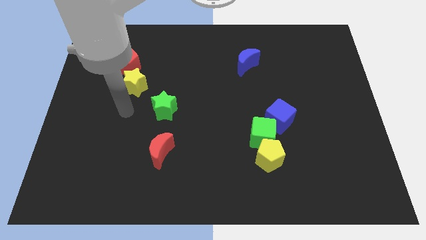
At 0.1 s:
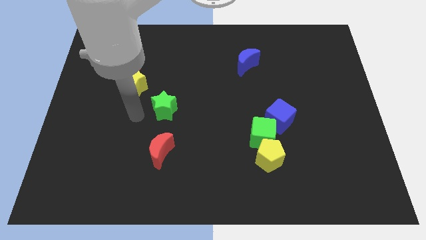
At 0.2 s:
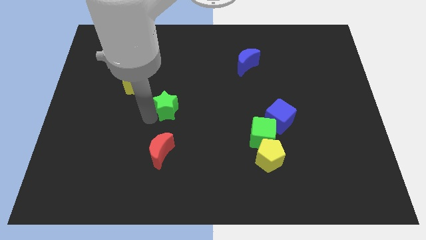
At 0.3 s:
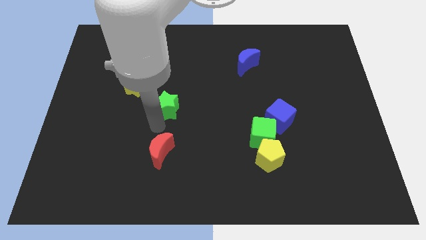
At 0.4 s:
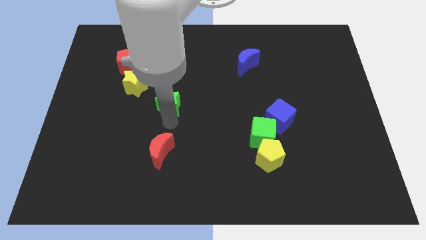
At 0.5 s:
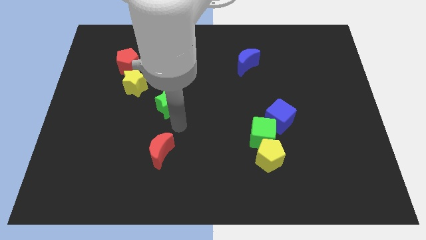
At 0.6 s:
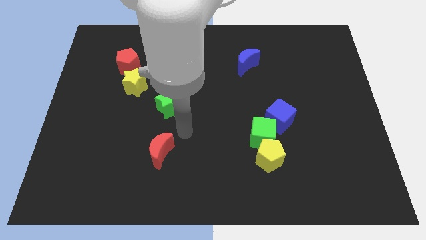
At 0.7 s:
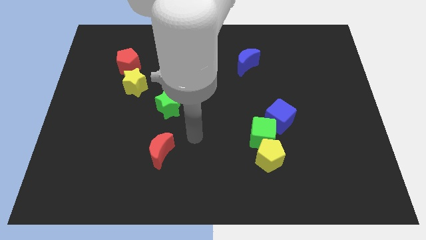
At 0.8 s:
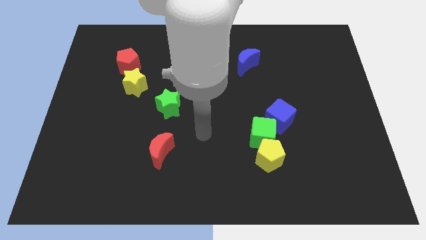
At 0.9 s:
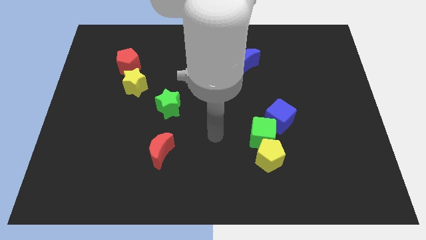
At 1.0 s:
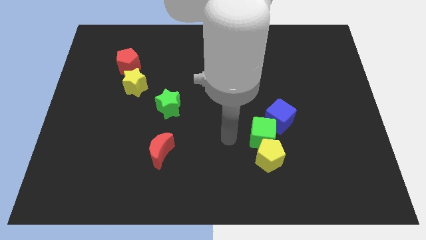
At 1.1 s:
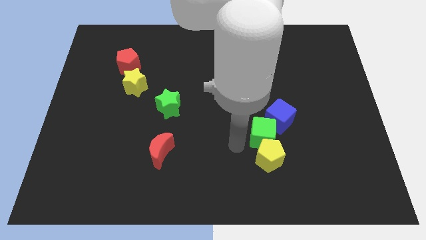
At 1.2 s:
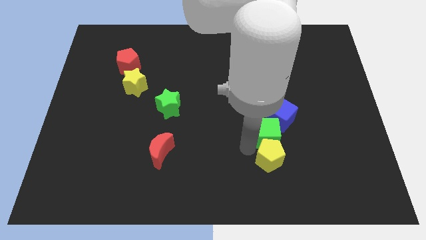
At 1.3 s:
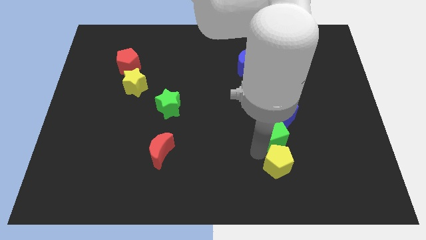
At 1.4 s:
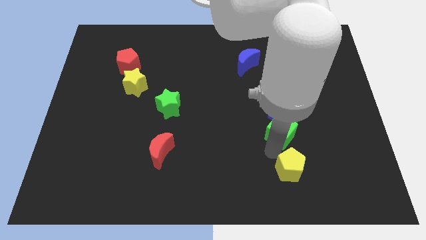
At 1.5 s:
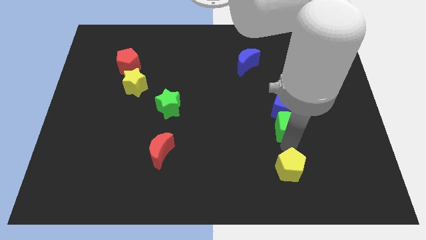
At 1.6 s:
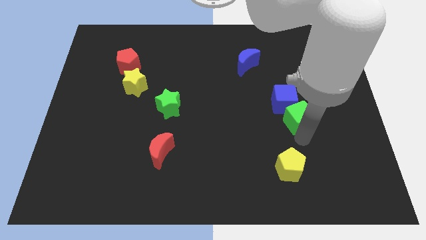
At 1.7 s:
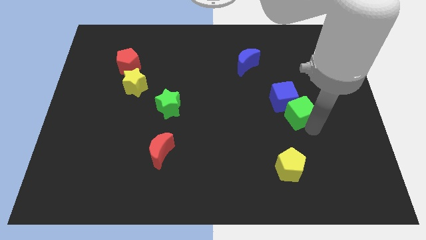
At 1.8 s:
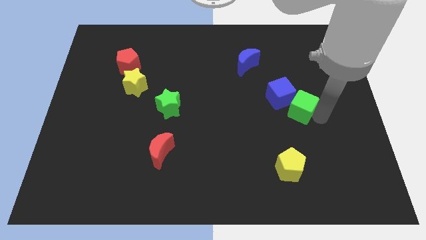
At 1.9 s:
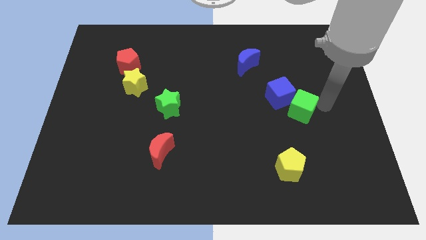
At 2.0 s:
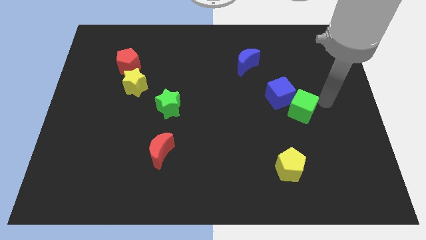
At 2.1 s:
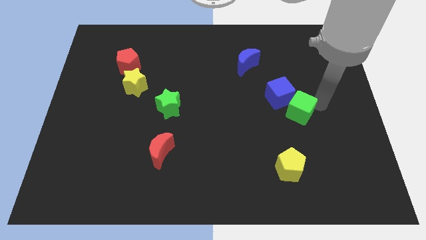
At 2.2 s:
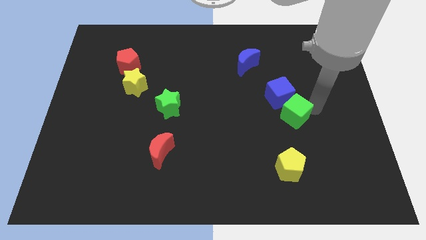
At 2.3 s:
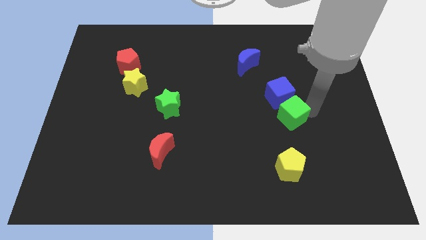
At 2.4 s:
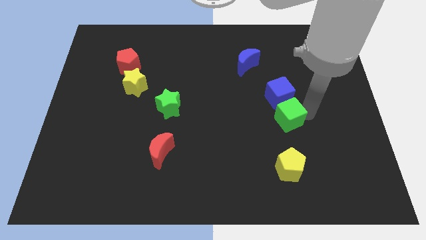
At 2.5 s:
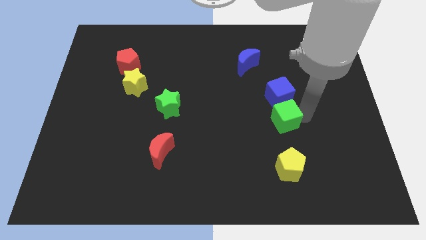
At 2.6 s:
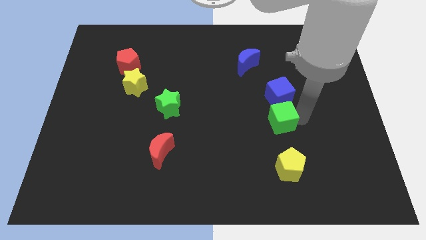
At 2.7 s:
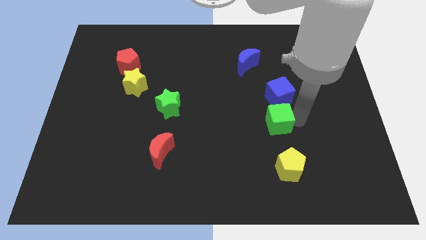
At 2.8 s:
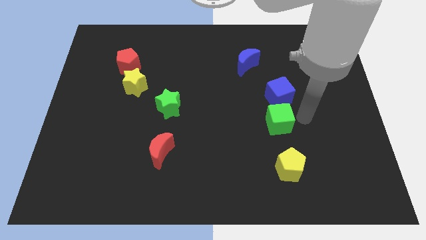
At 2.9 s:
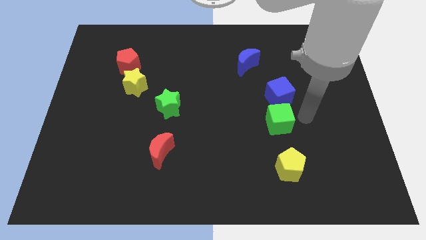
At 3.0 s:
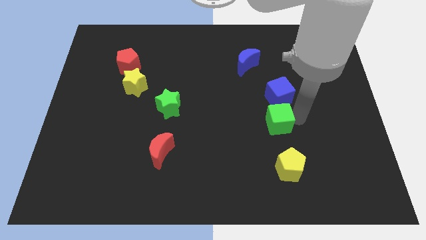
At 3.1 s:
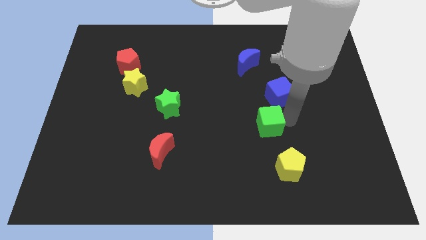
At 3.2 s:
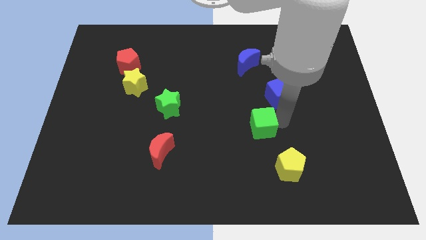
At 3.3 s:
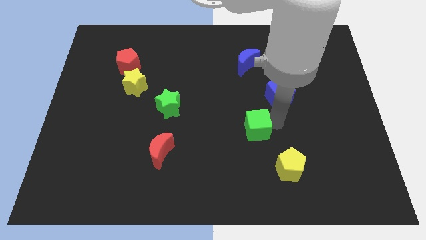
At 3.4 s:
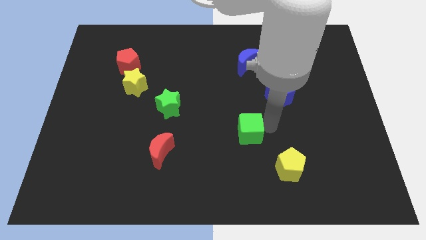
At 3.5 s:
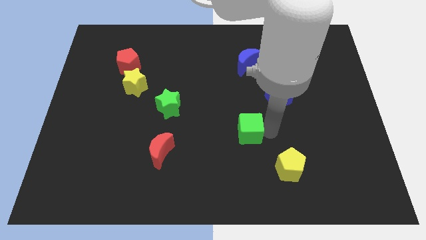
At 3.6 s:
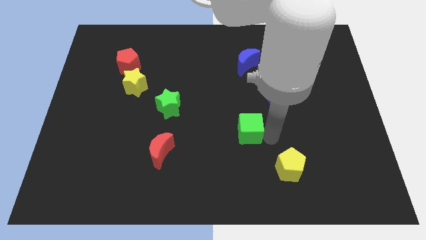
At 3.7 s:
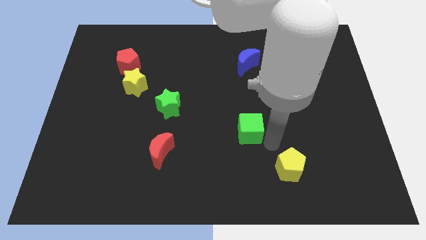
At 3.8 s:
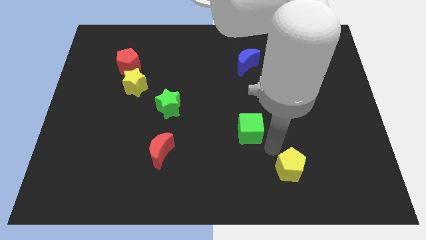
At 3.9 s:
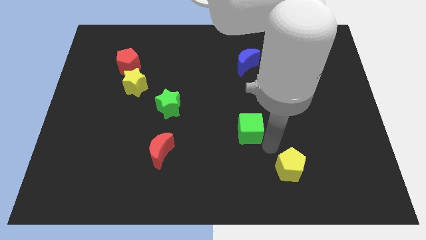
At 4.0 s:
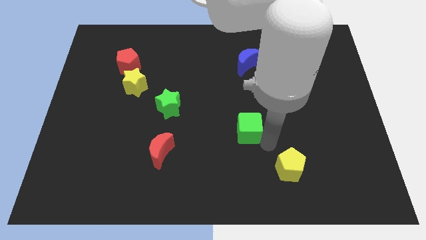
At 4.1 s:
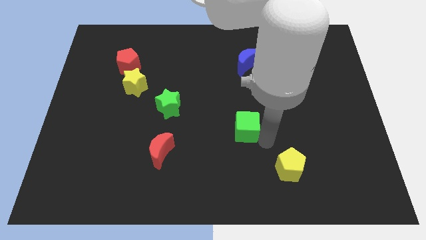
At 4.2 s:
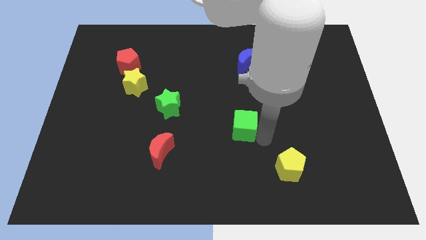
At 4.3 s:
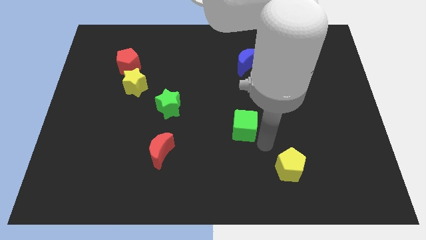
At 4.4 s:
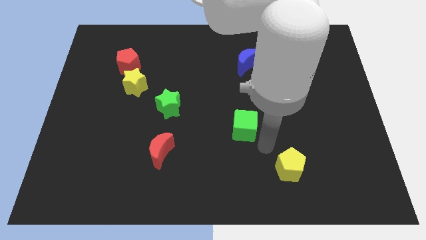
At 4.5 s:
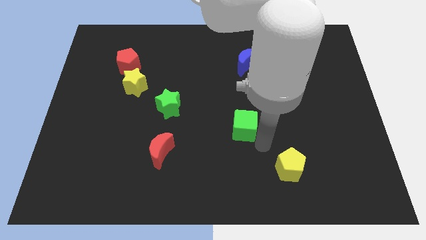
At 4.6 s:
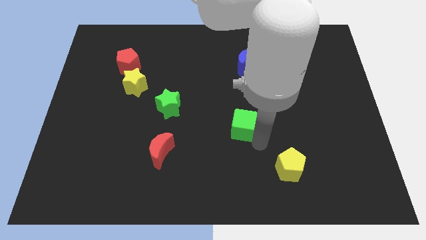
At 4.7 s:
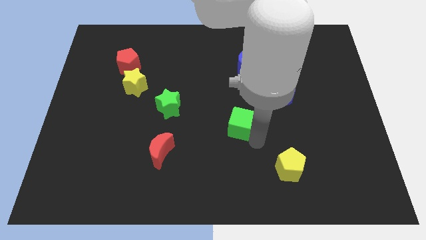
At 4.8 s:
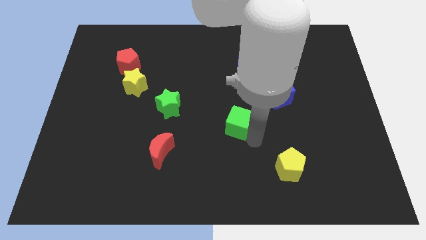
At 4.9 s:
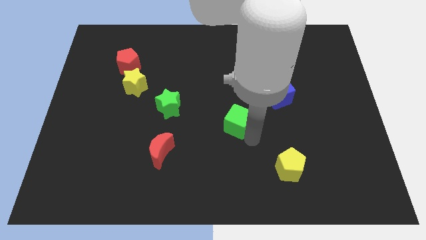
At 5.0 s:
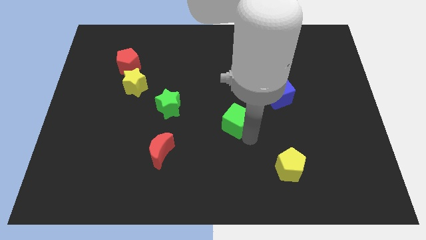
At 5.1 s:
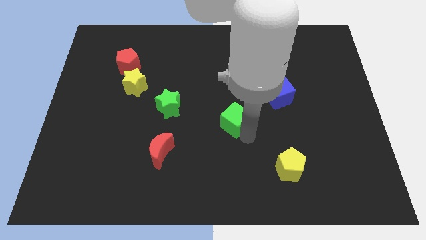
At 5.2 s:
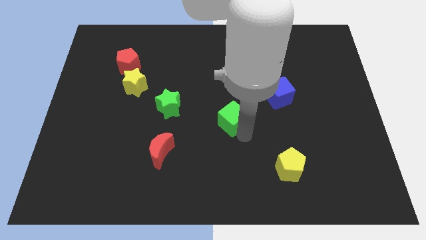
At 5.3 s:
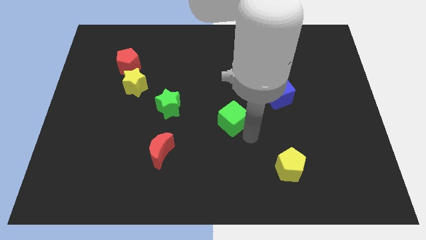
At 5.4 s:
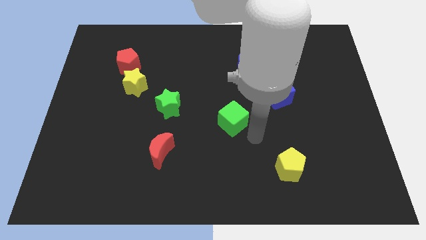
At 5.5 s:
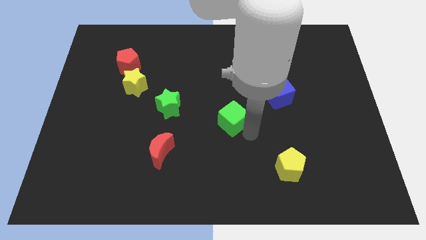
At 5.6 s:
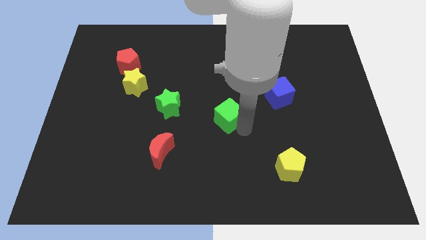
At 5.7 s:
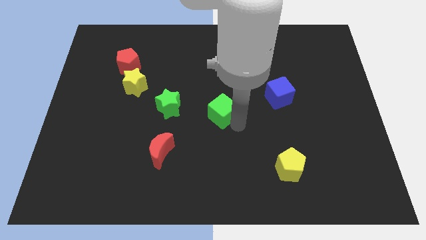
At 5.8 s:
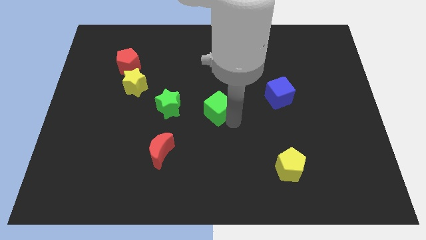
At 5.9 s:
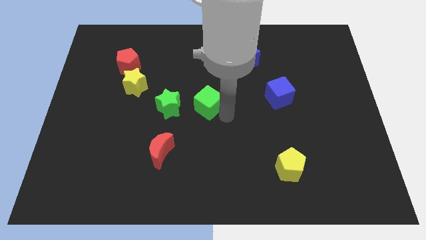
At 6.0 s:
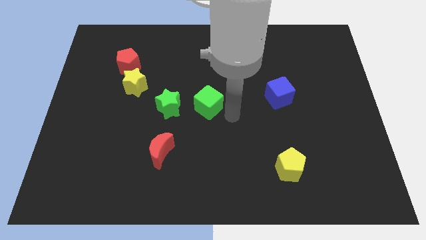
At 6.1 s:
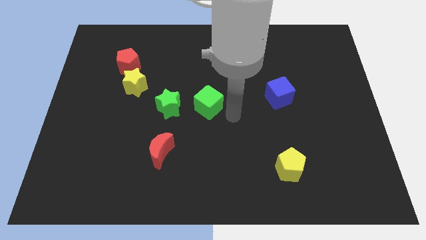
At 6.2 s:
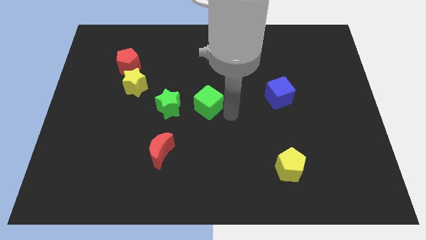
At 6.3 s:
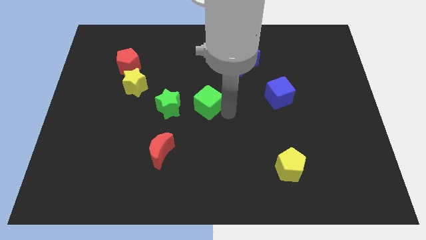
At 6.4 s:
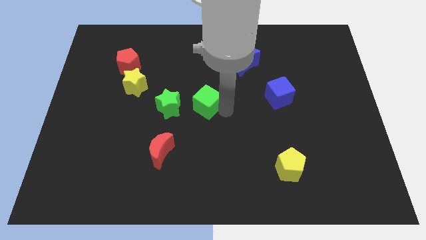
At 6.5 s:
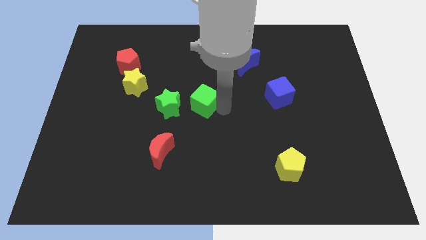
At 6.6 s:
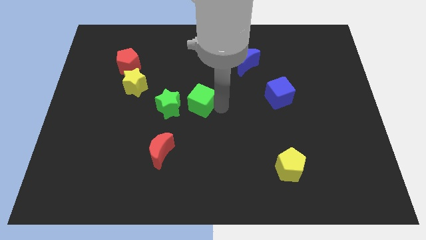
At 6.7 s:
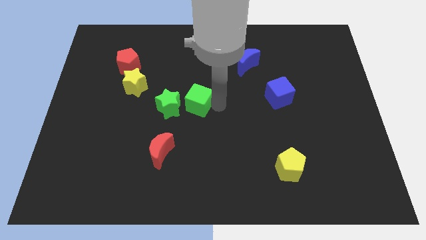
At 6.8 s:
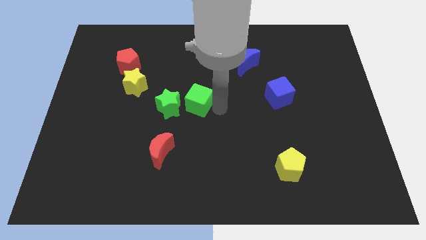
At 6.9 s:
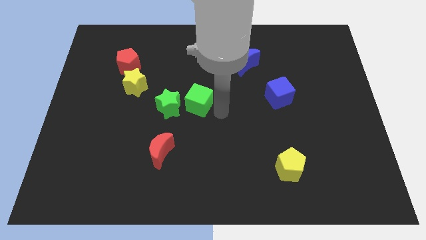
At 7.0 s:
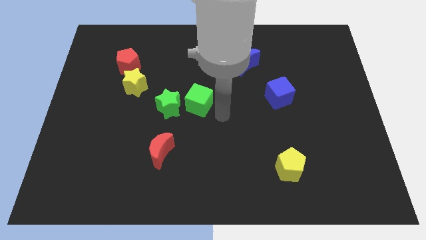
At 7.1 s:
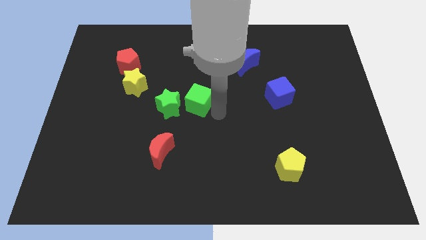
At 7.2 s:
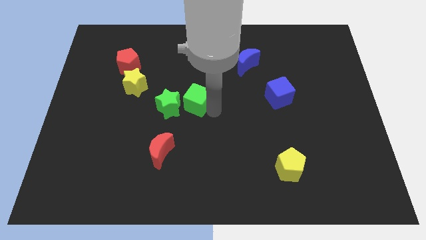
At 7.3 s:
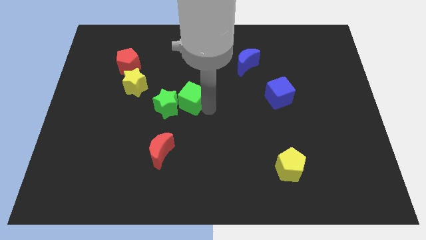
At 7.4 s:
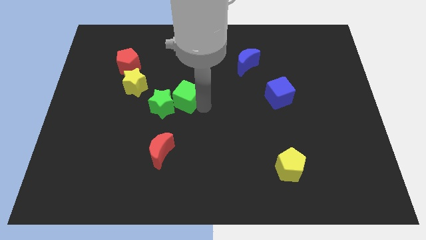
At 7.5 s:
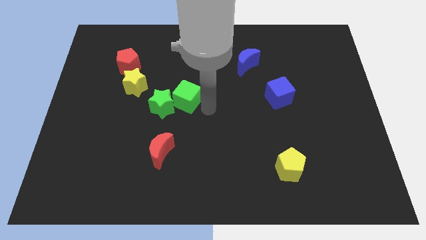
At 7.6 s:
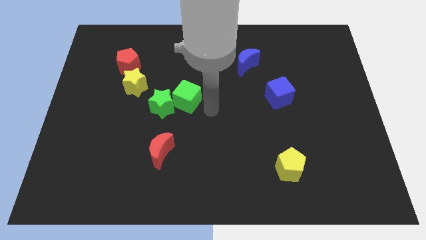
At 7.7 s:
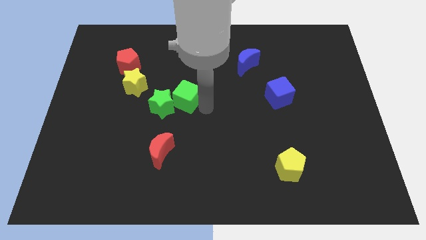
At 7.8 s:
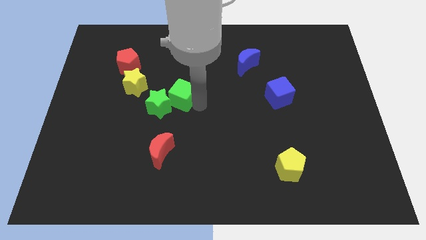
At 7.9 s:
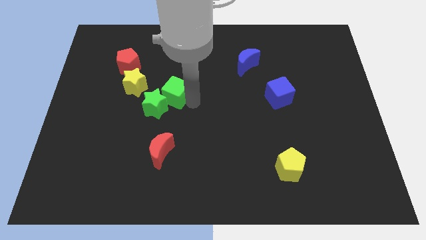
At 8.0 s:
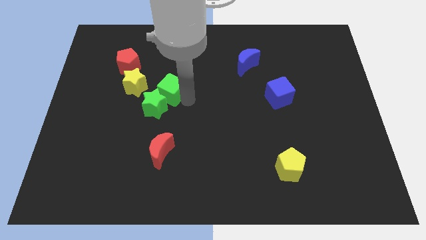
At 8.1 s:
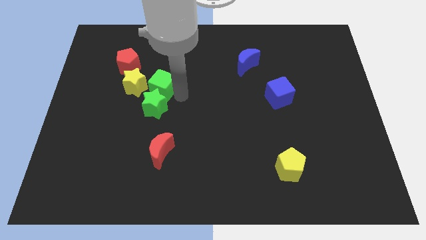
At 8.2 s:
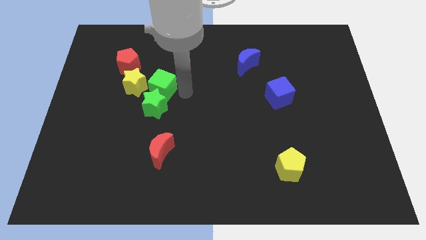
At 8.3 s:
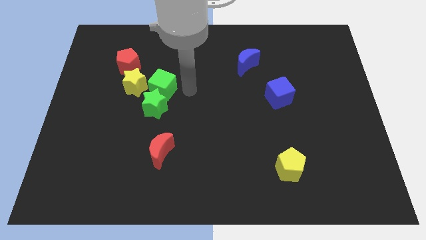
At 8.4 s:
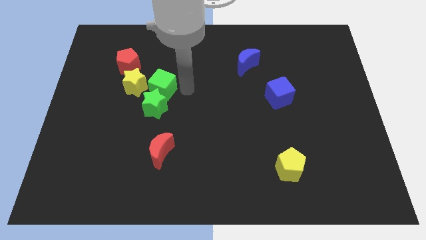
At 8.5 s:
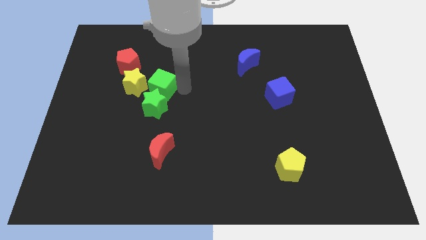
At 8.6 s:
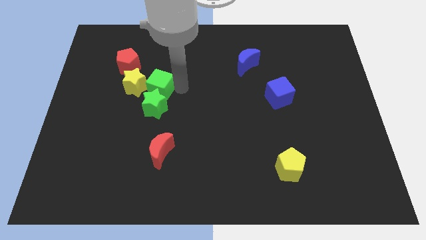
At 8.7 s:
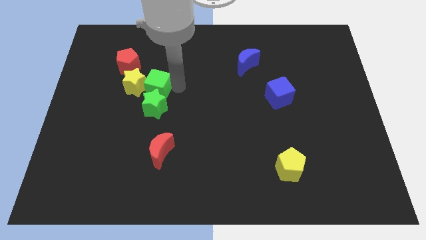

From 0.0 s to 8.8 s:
put the green cube next to the yellow star
